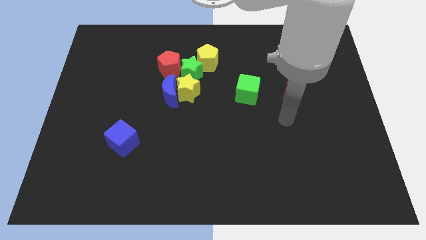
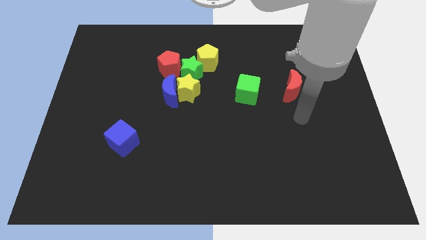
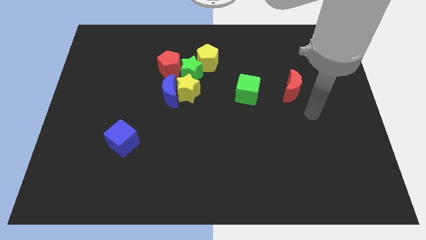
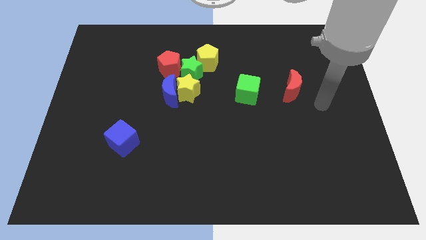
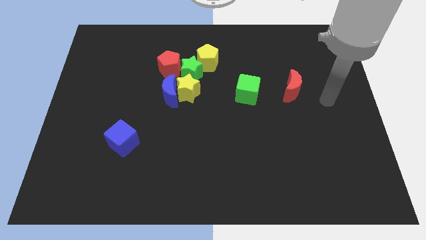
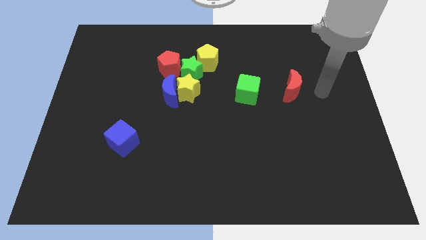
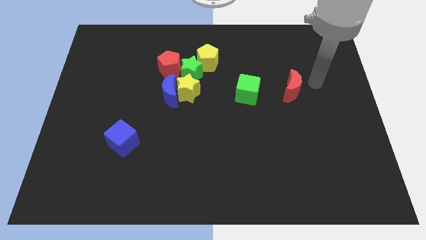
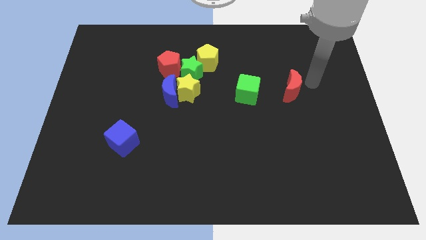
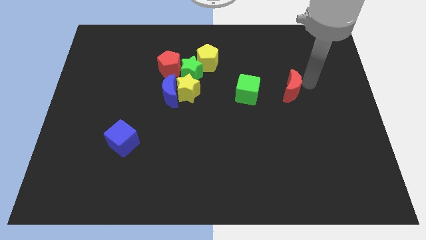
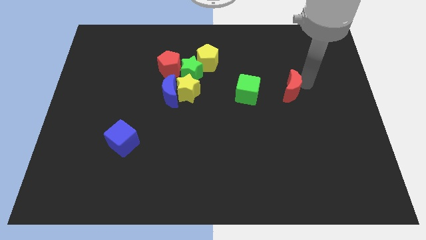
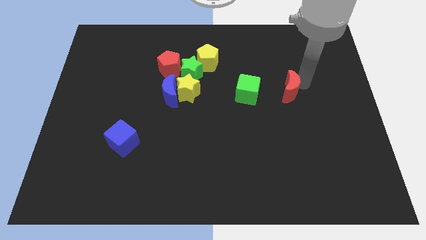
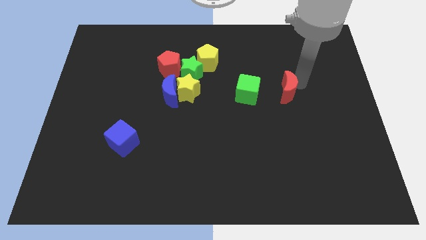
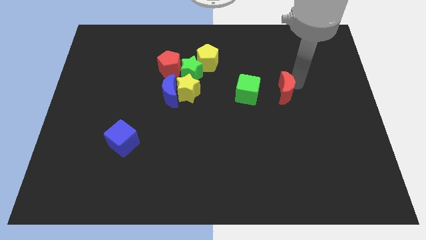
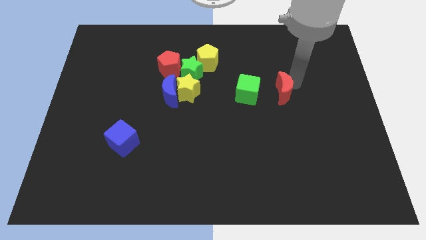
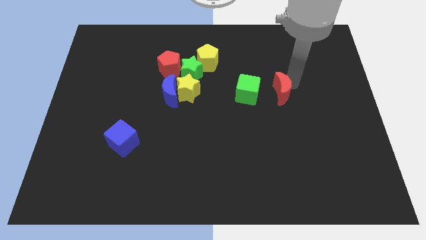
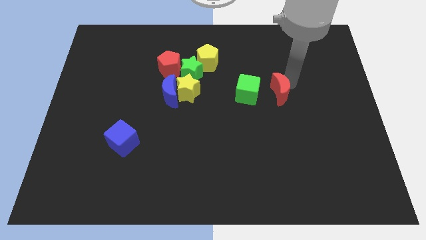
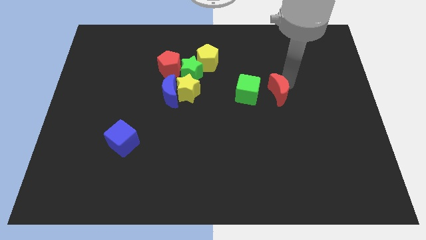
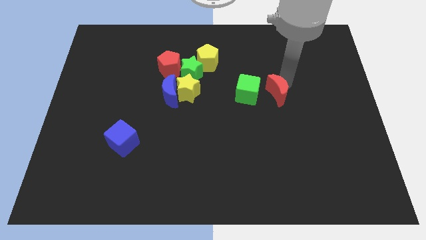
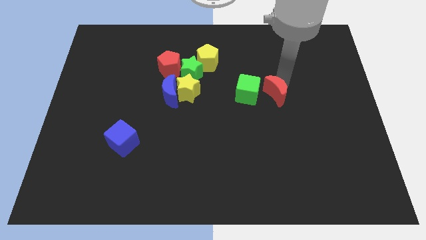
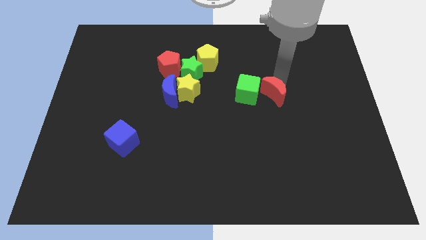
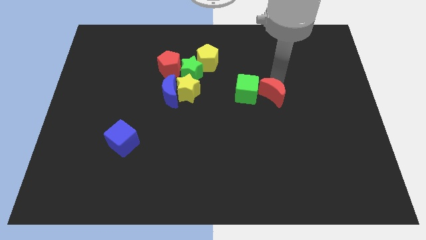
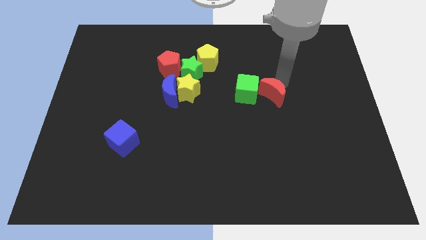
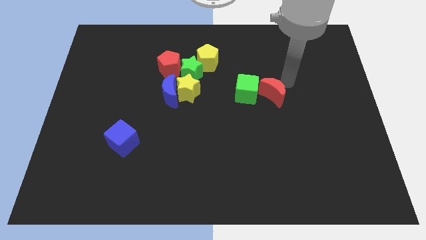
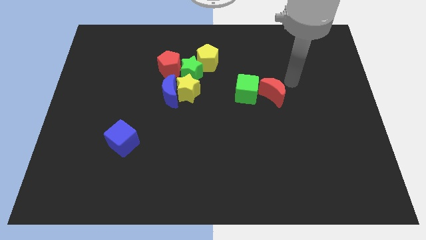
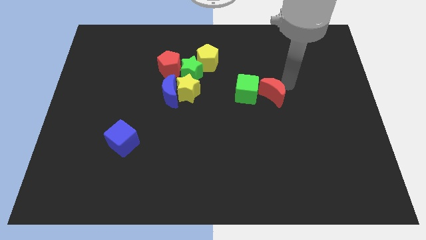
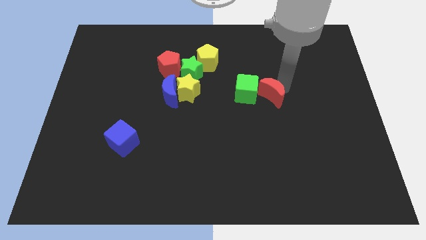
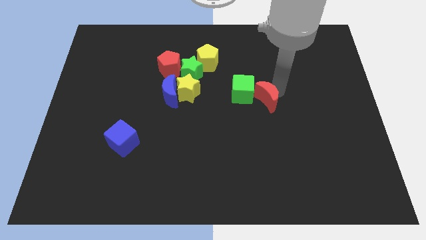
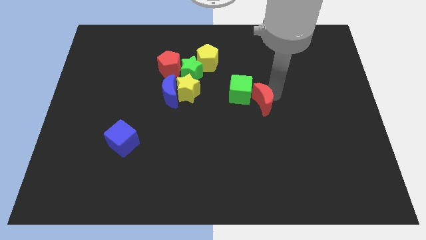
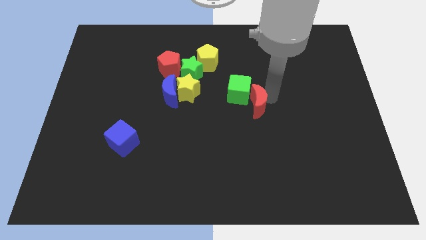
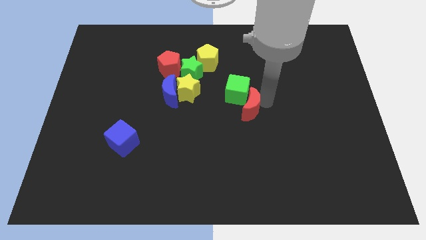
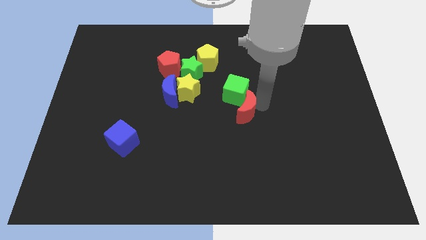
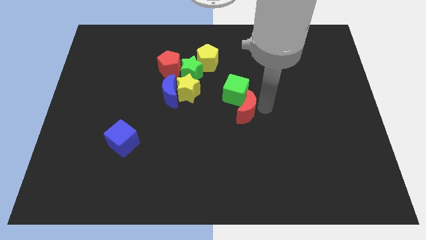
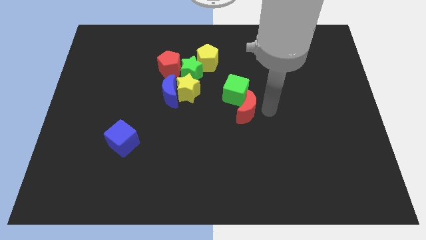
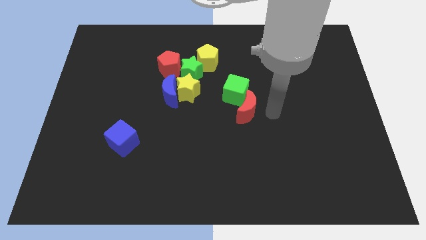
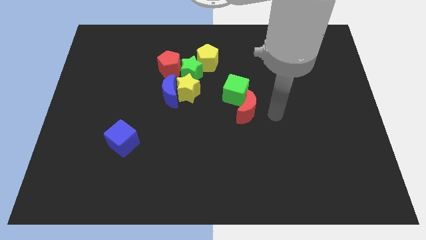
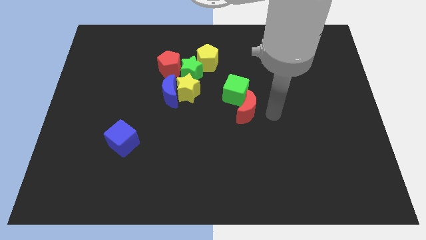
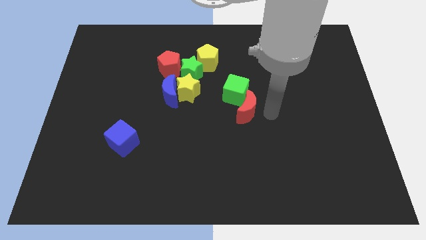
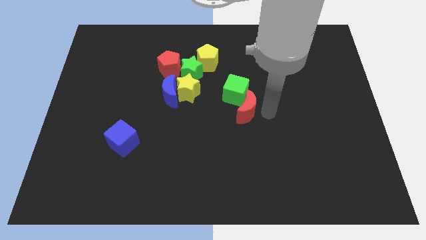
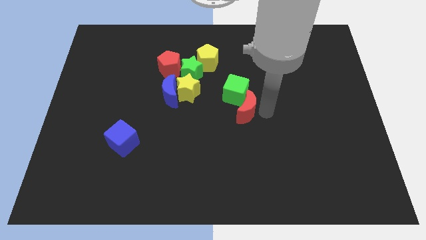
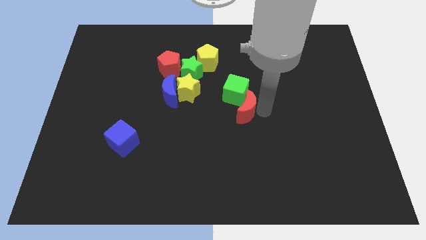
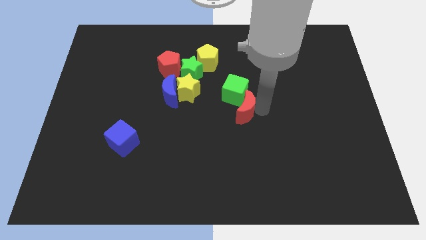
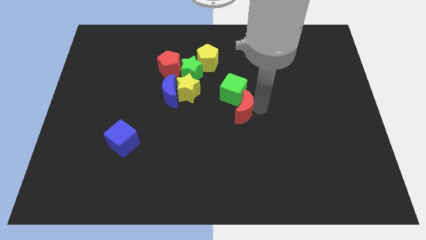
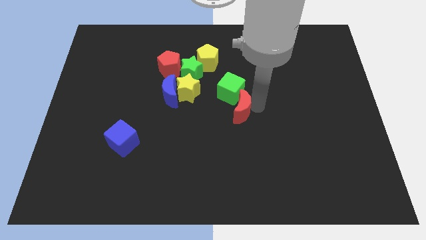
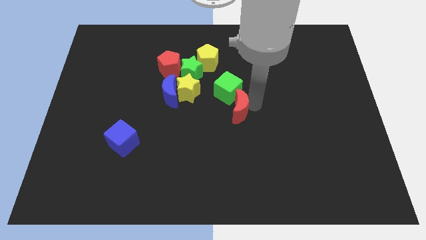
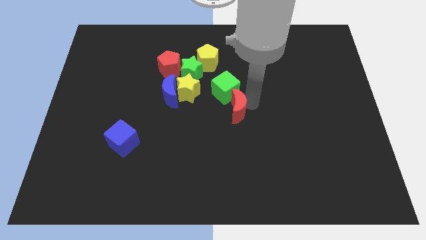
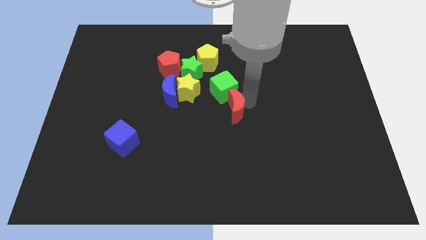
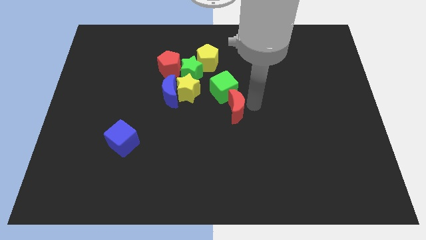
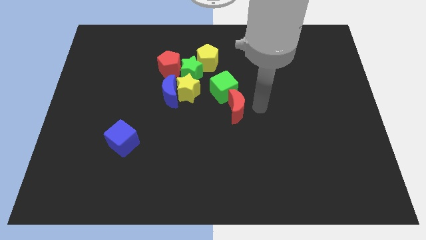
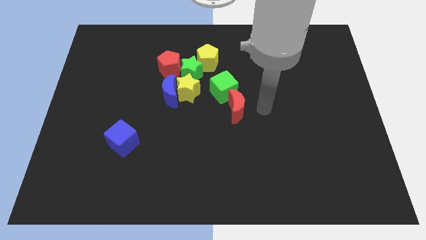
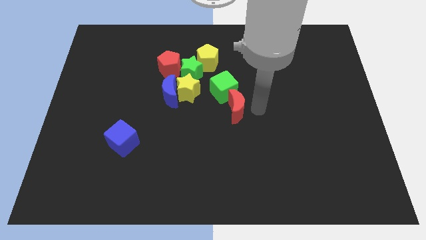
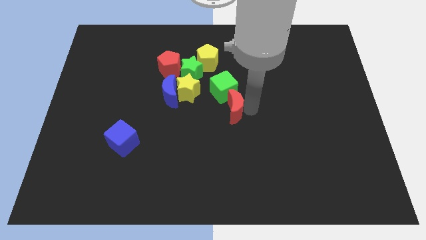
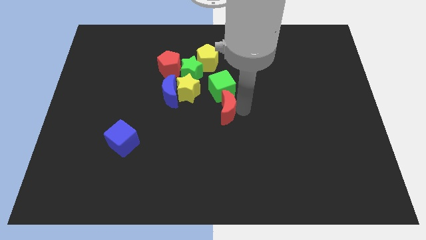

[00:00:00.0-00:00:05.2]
push the red moon to the bottom right side of the yellow star

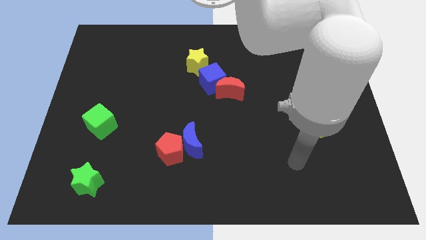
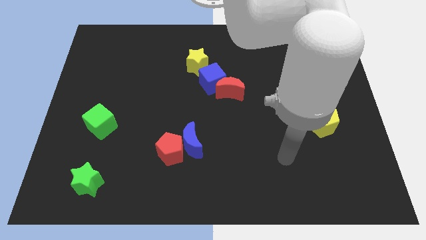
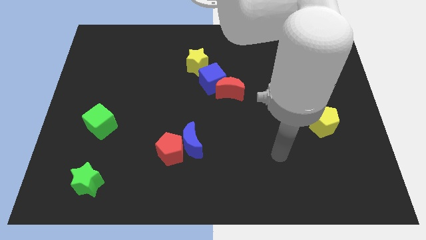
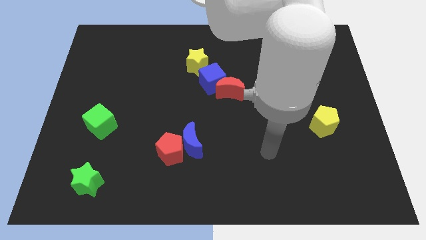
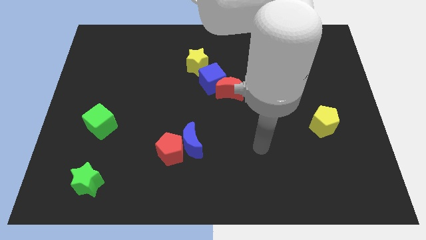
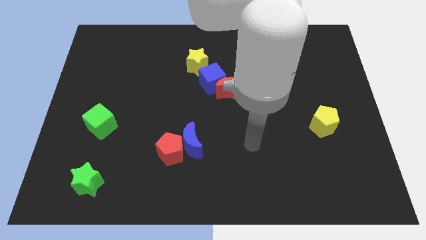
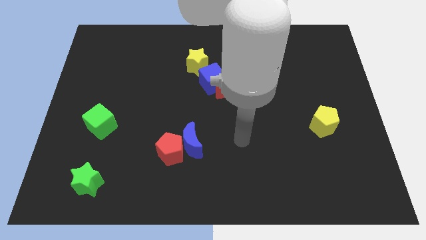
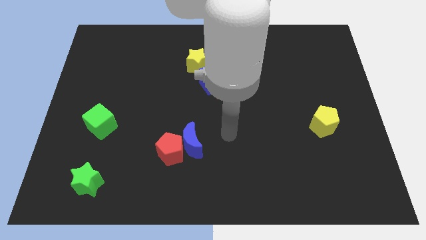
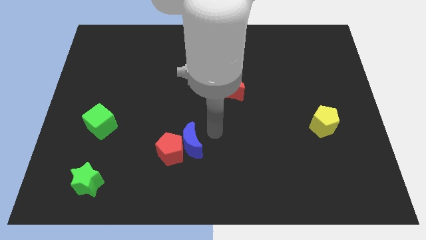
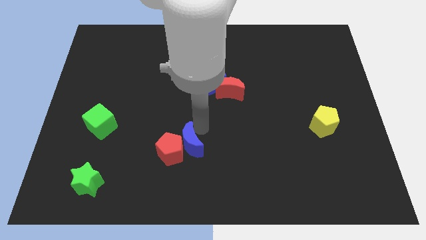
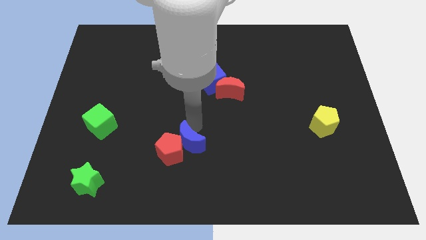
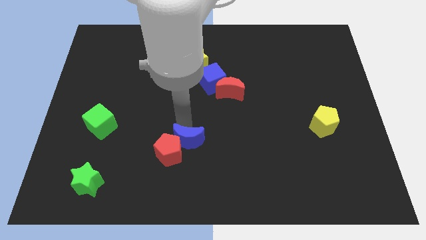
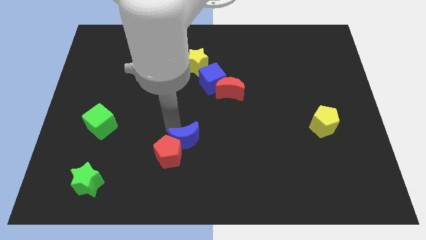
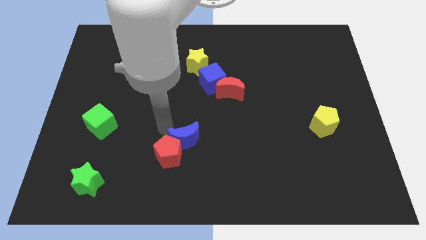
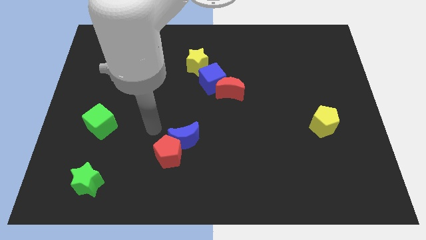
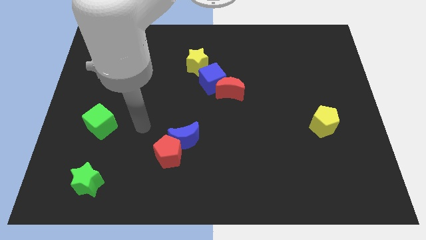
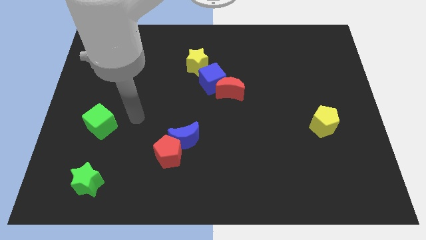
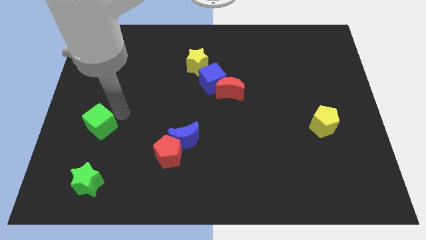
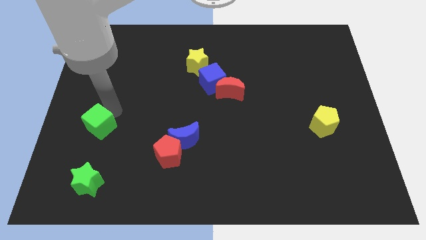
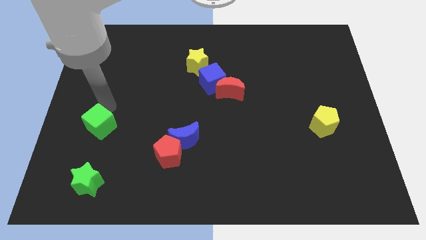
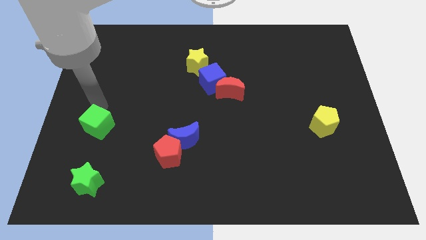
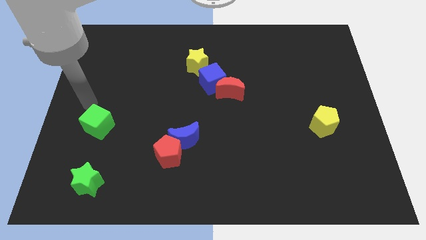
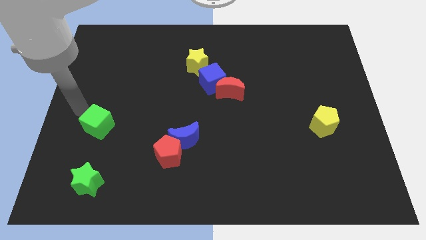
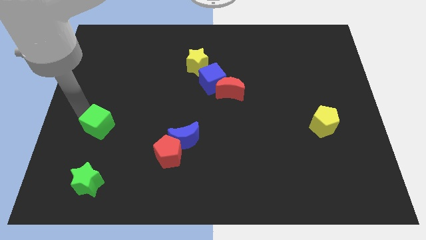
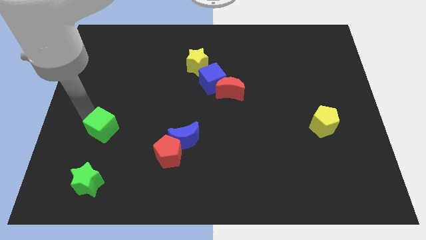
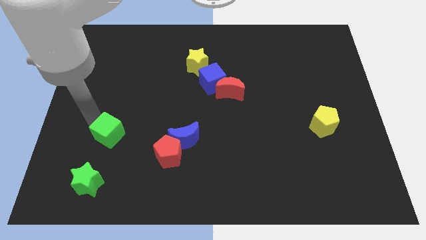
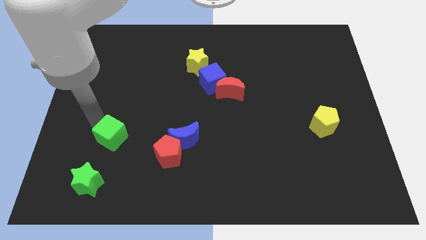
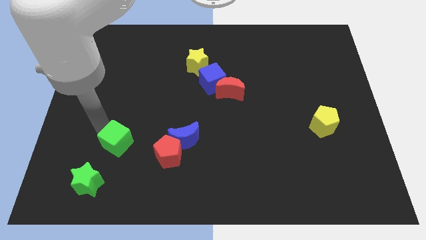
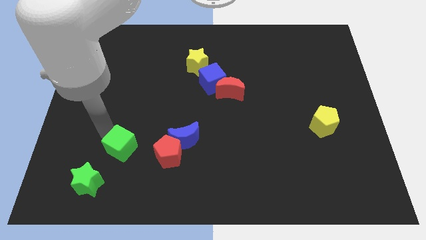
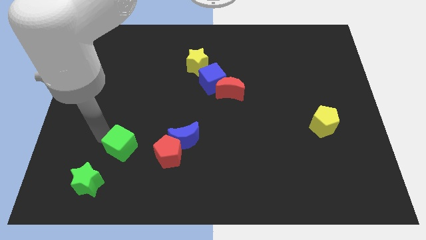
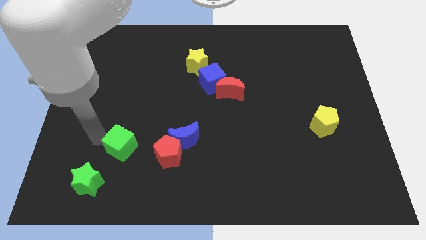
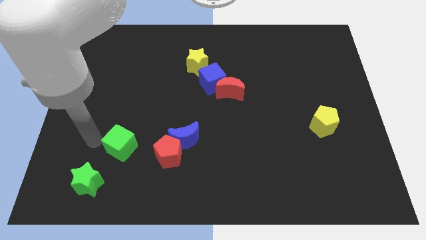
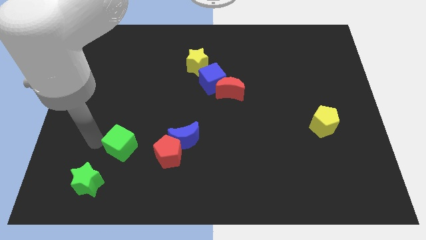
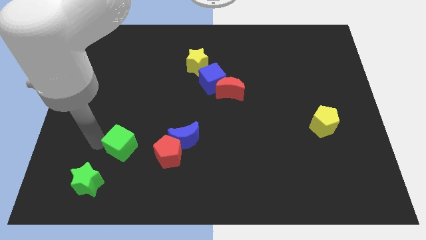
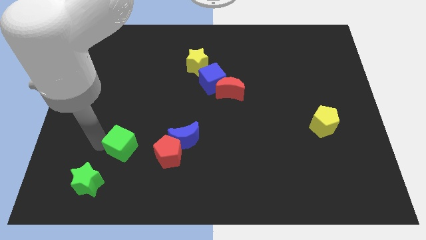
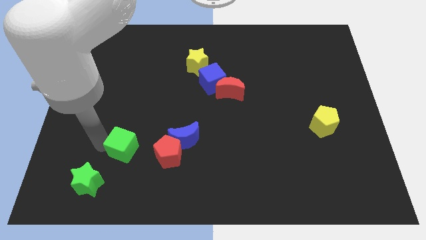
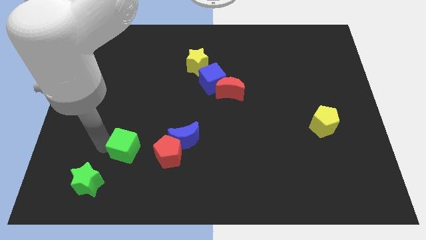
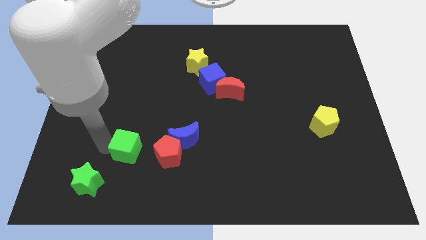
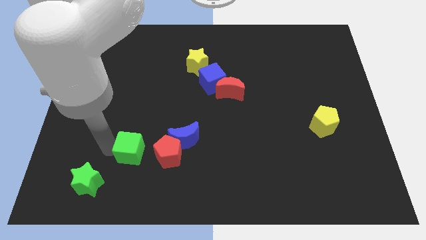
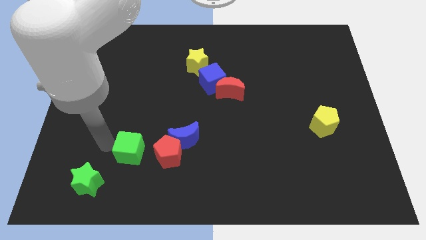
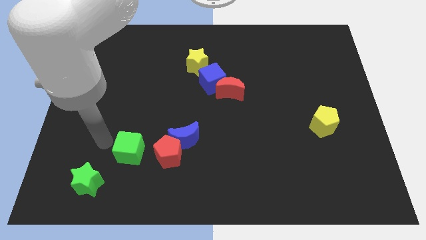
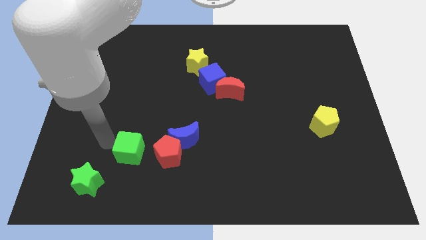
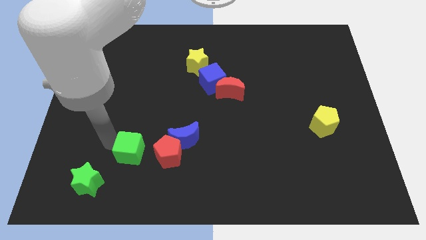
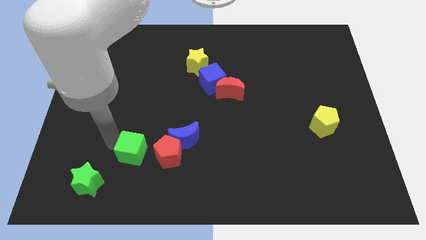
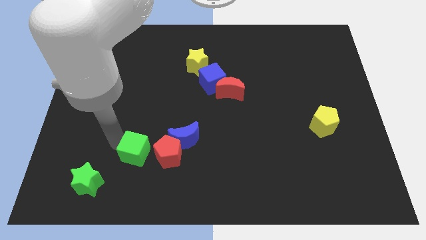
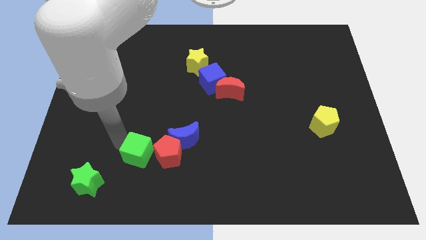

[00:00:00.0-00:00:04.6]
move the green cube to the bottom left of the blue moon
